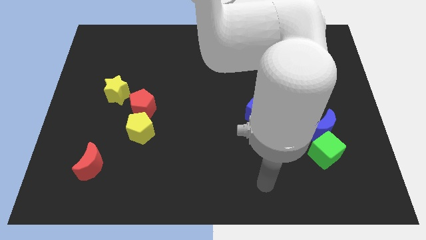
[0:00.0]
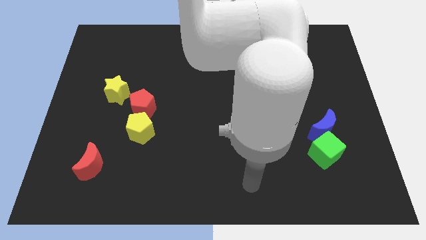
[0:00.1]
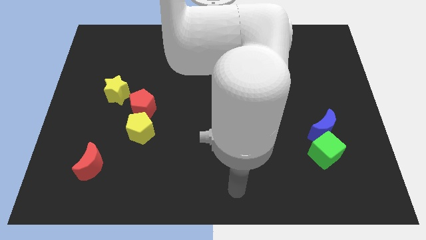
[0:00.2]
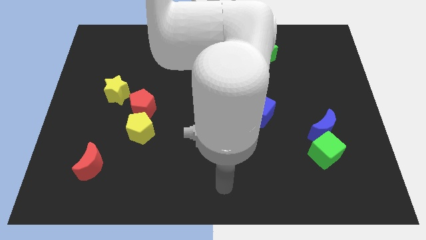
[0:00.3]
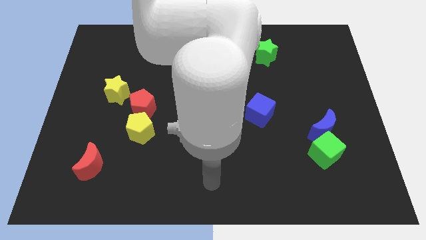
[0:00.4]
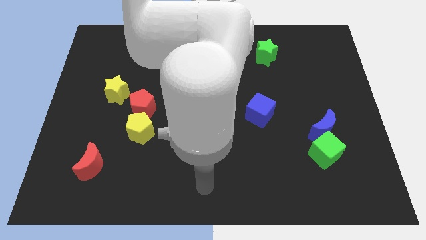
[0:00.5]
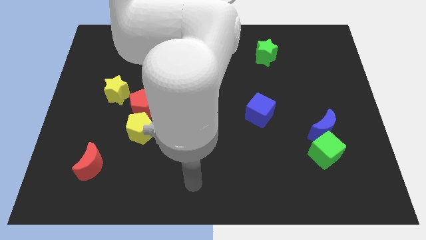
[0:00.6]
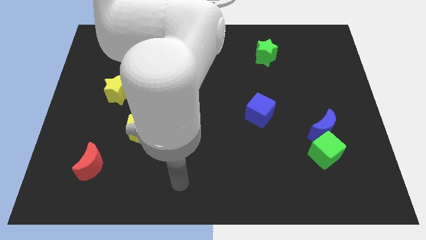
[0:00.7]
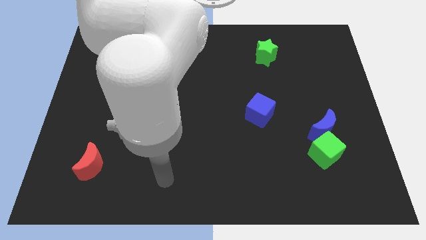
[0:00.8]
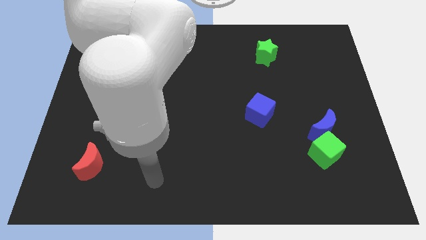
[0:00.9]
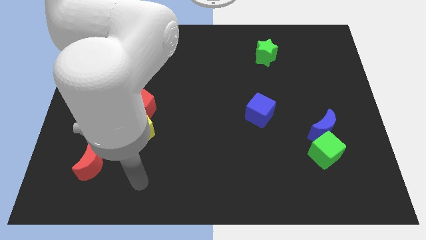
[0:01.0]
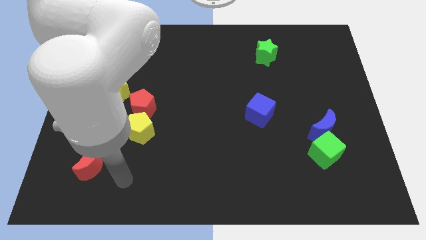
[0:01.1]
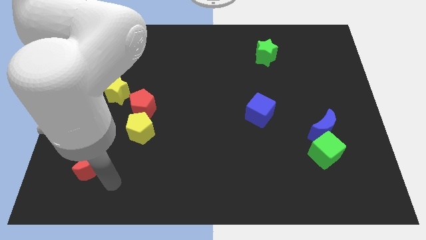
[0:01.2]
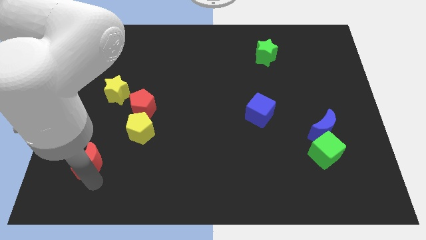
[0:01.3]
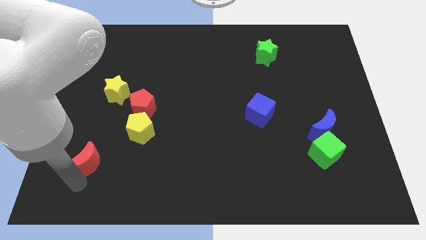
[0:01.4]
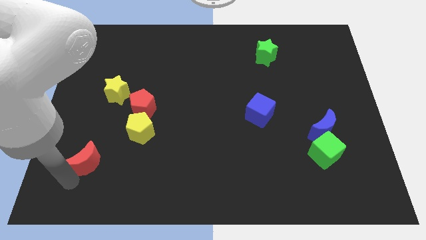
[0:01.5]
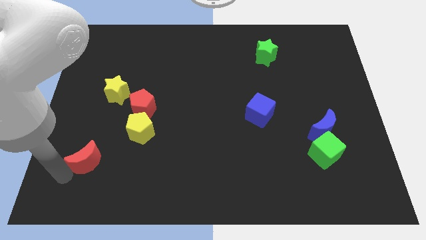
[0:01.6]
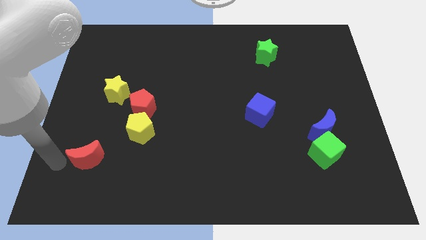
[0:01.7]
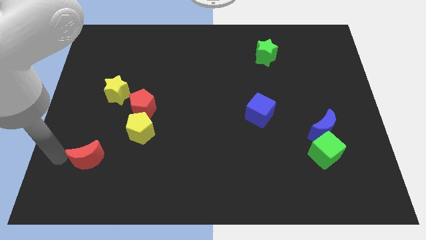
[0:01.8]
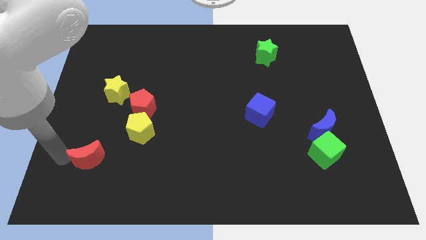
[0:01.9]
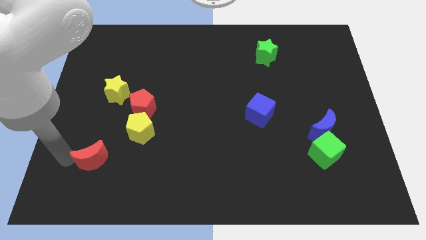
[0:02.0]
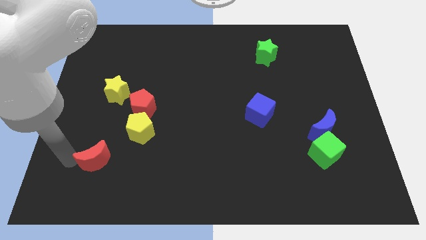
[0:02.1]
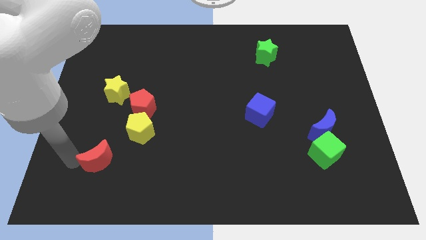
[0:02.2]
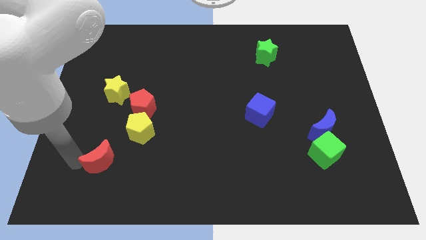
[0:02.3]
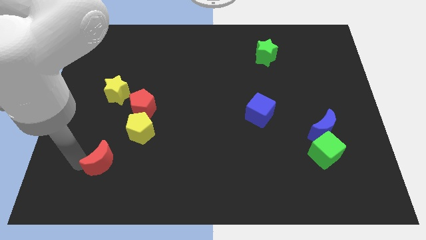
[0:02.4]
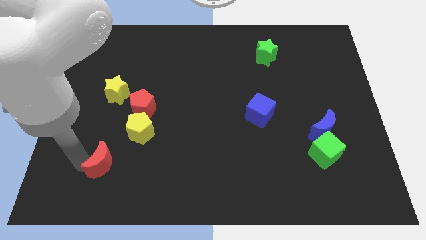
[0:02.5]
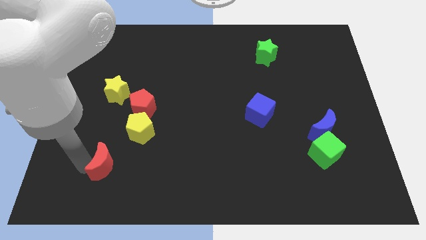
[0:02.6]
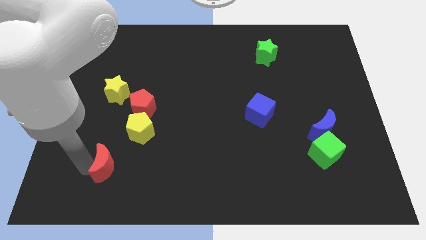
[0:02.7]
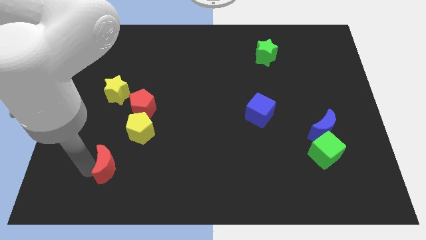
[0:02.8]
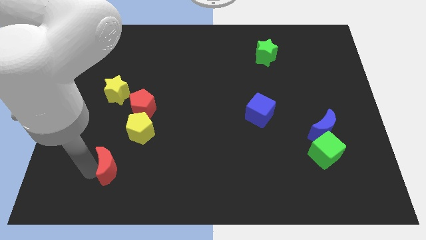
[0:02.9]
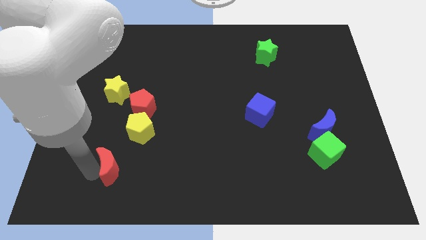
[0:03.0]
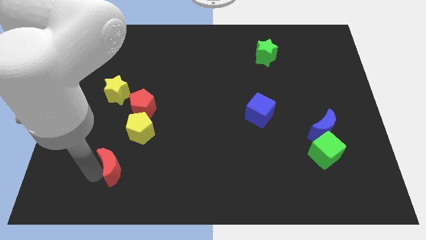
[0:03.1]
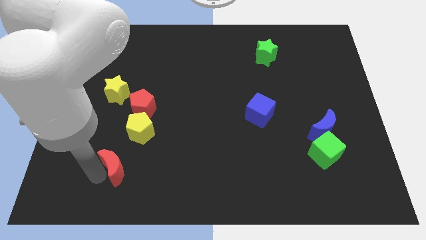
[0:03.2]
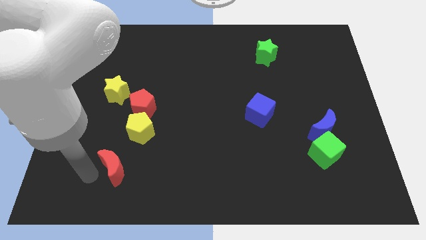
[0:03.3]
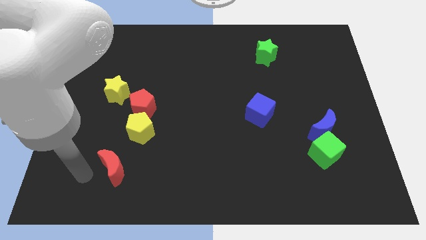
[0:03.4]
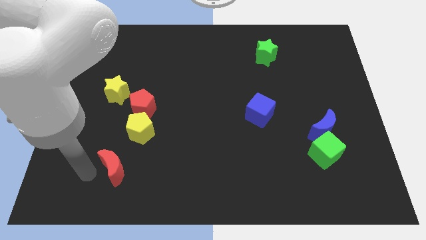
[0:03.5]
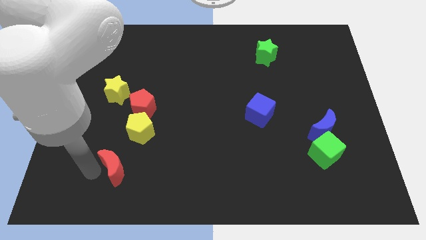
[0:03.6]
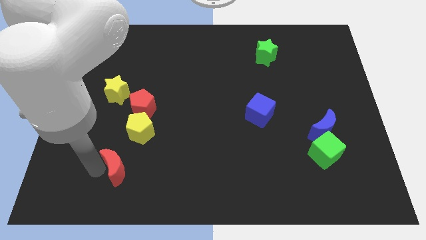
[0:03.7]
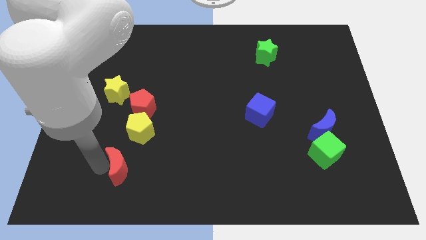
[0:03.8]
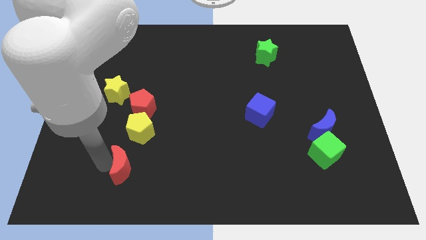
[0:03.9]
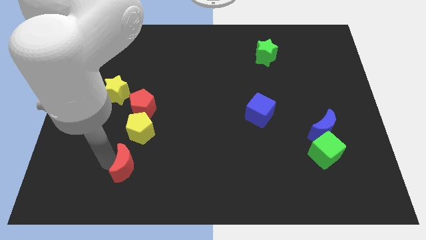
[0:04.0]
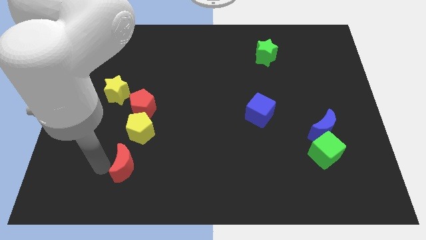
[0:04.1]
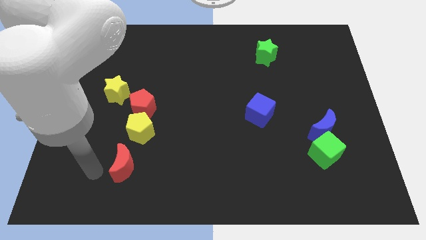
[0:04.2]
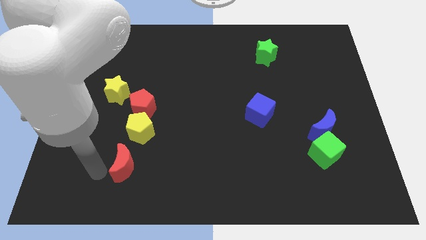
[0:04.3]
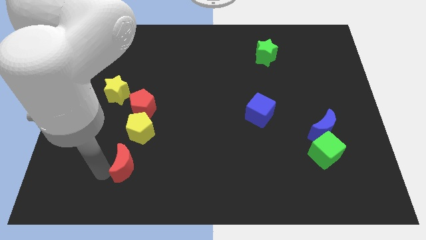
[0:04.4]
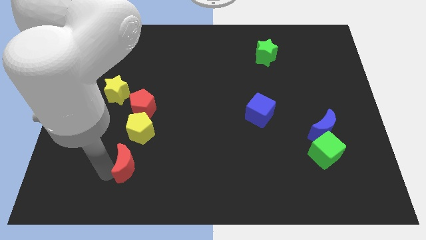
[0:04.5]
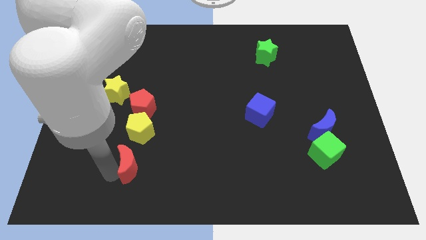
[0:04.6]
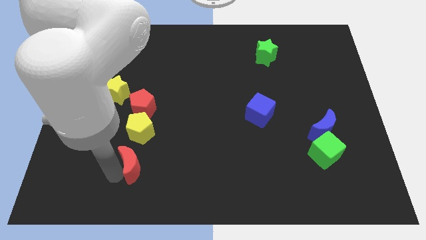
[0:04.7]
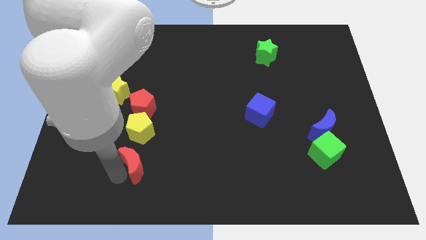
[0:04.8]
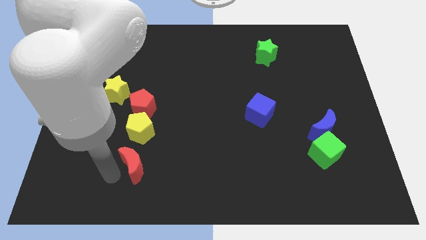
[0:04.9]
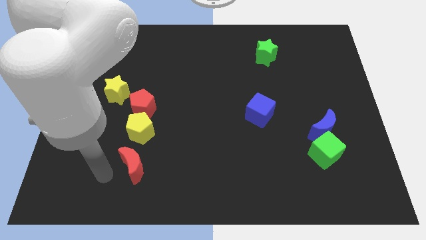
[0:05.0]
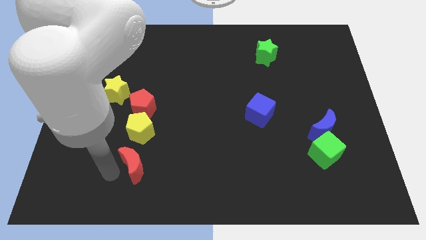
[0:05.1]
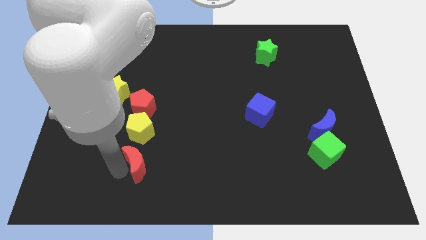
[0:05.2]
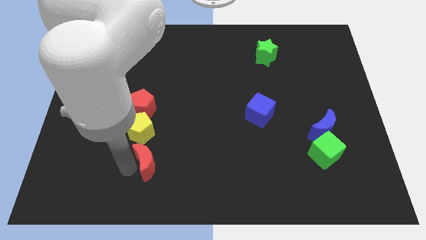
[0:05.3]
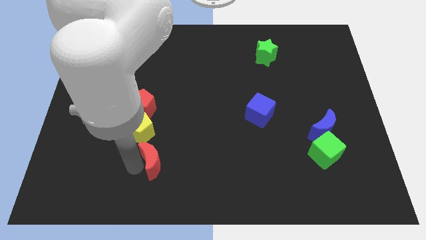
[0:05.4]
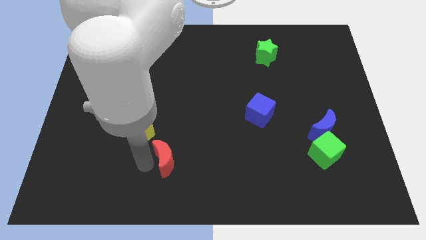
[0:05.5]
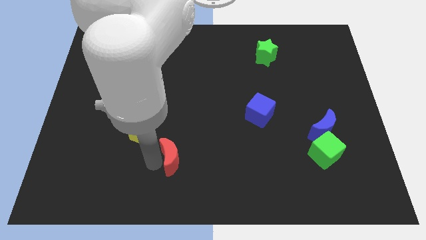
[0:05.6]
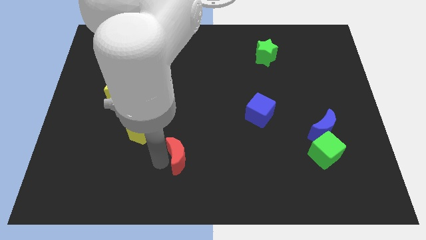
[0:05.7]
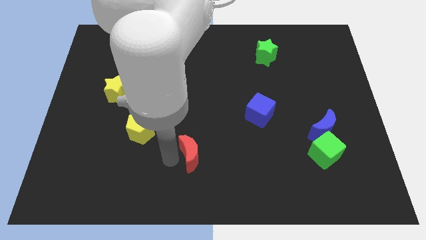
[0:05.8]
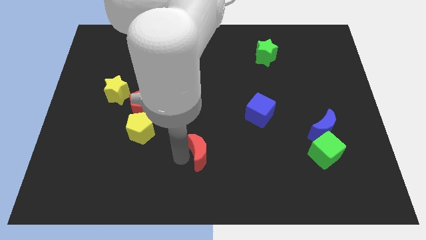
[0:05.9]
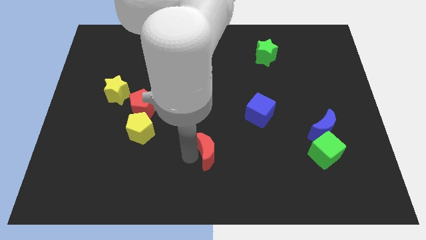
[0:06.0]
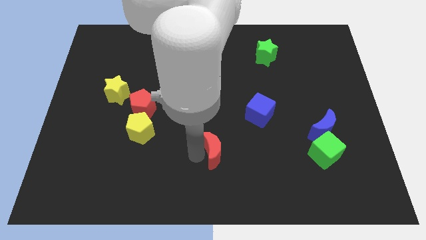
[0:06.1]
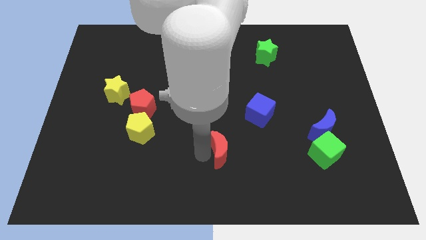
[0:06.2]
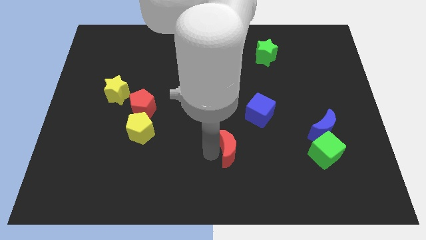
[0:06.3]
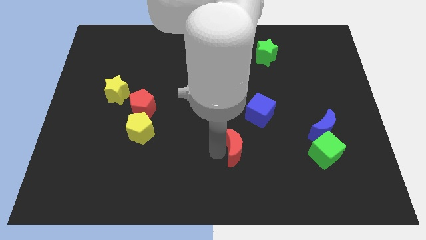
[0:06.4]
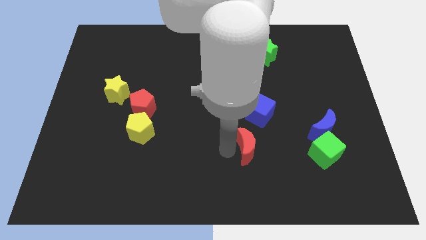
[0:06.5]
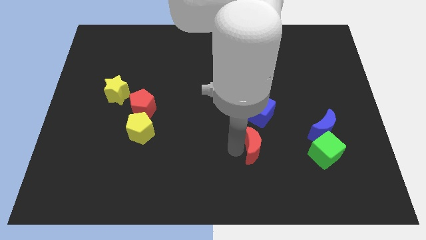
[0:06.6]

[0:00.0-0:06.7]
move the red moon to the left of the green cube
